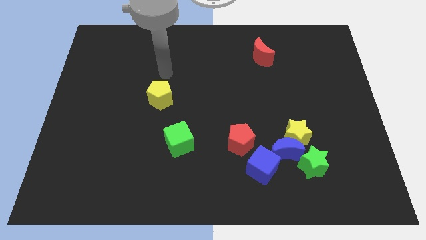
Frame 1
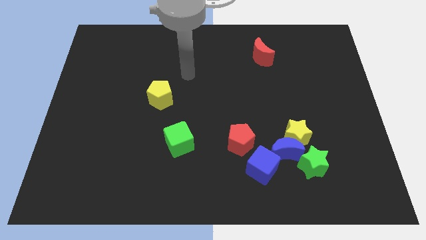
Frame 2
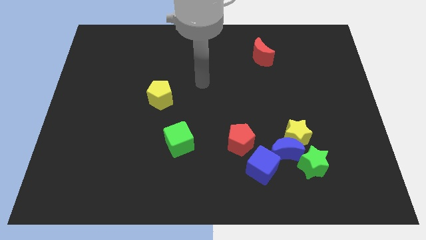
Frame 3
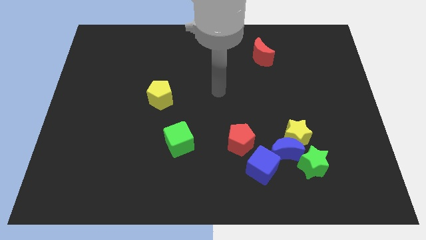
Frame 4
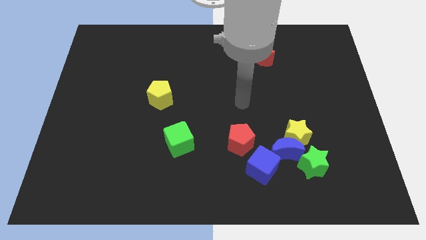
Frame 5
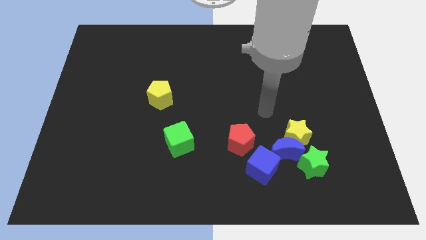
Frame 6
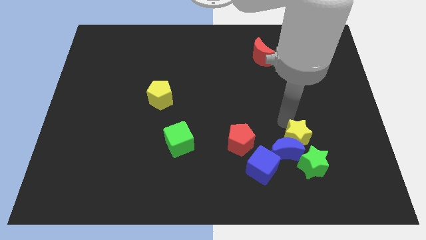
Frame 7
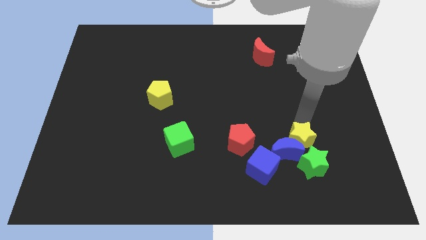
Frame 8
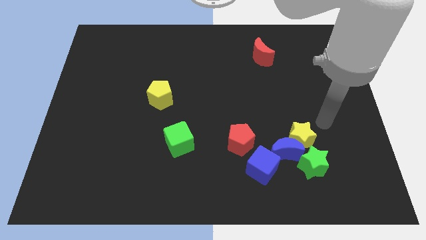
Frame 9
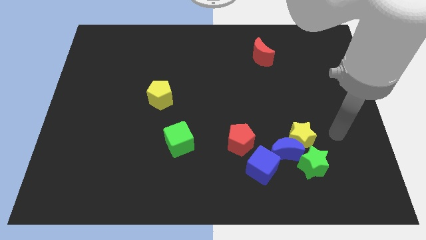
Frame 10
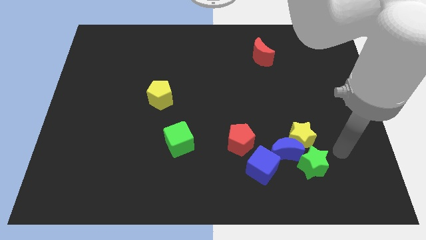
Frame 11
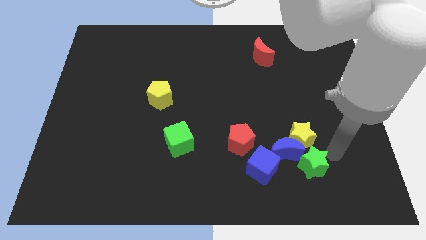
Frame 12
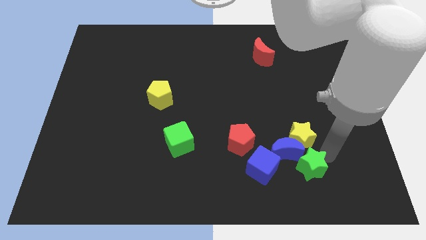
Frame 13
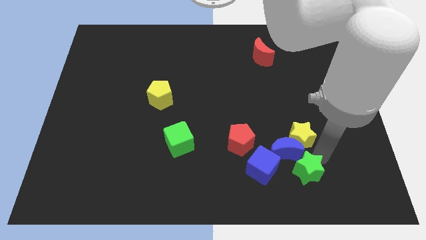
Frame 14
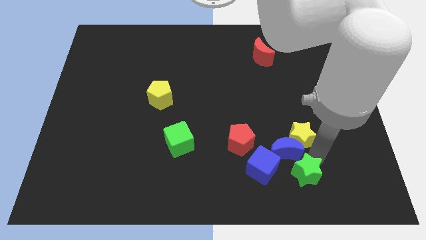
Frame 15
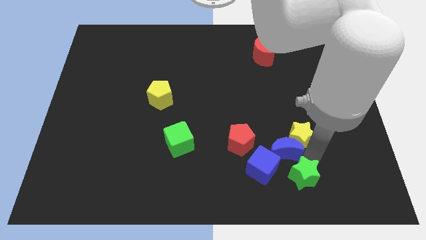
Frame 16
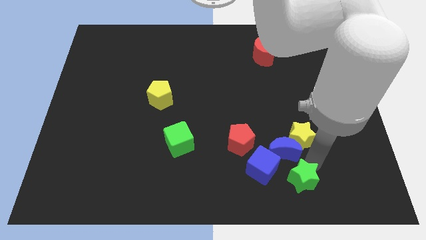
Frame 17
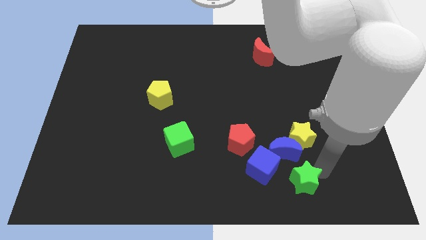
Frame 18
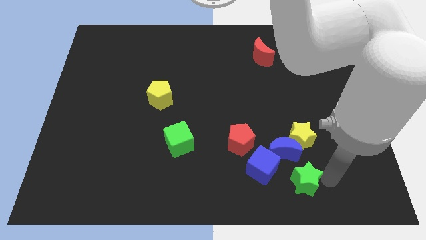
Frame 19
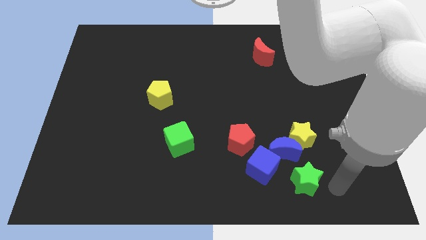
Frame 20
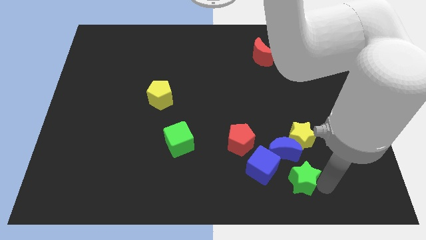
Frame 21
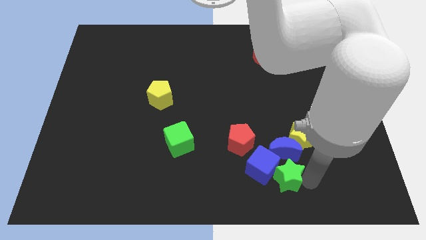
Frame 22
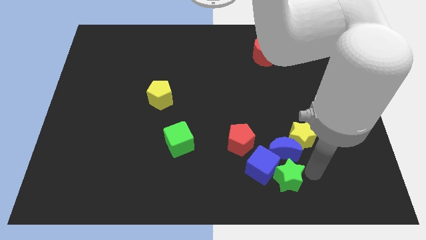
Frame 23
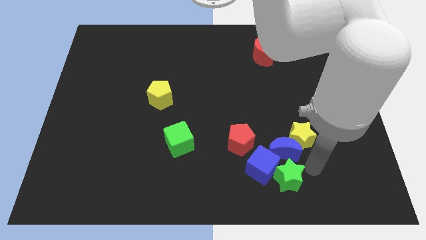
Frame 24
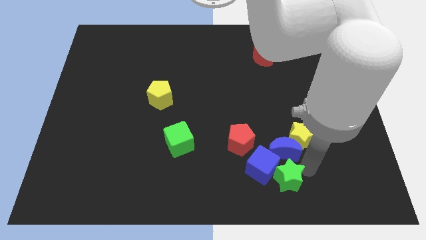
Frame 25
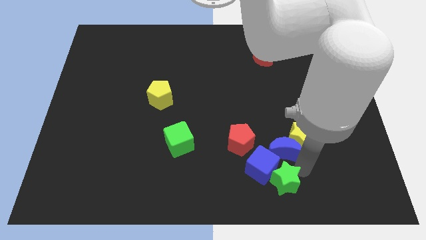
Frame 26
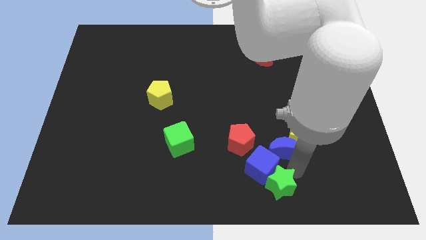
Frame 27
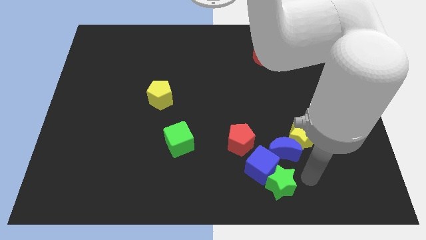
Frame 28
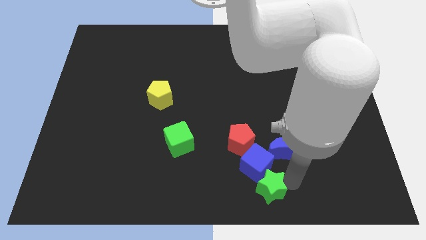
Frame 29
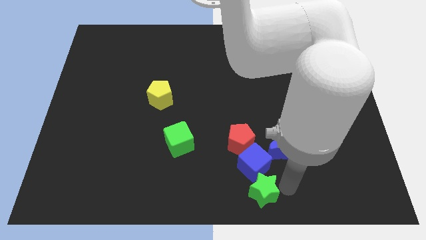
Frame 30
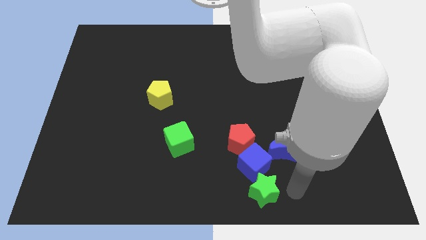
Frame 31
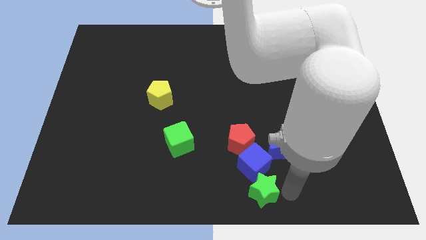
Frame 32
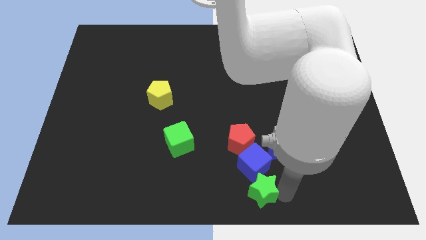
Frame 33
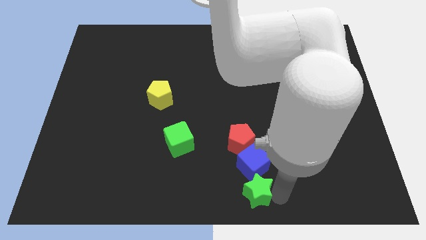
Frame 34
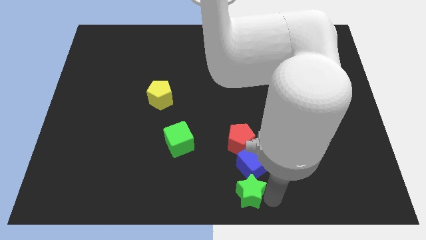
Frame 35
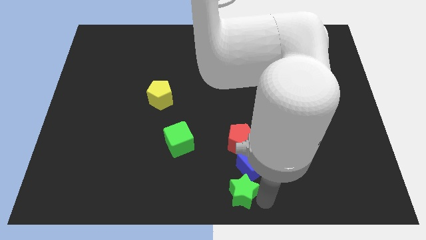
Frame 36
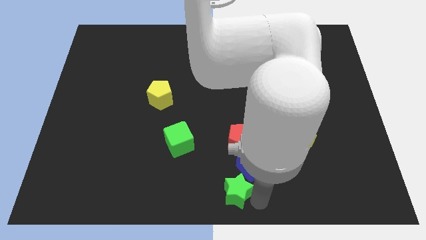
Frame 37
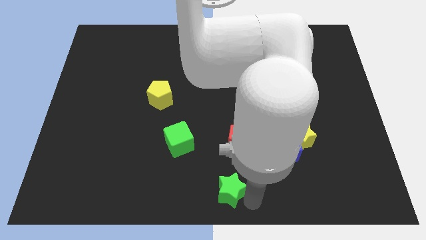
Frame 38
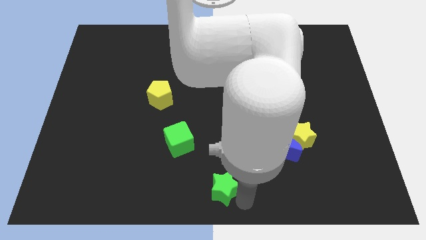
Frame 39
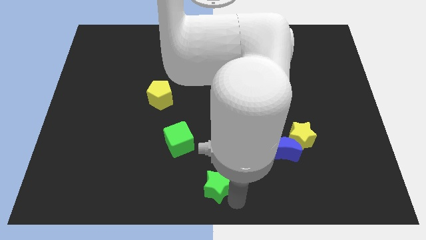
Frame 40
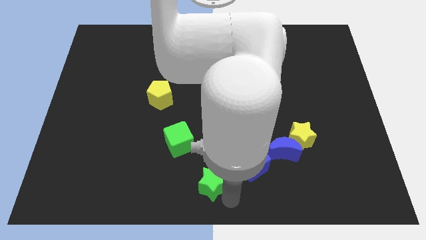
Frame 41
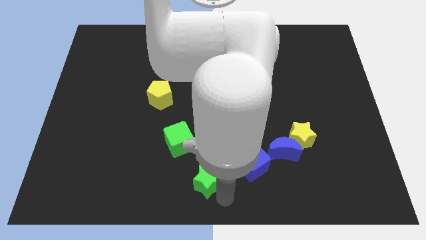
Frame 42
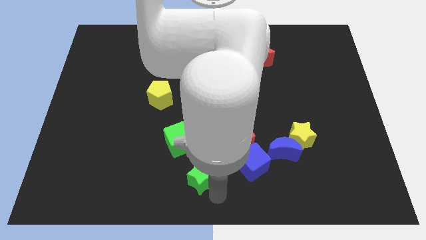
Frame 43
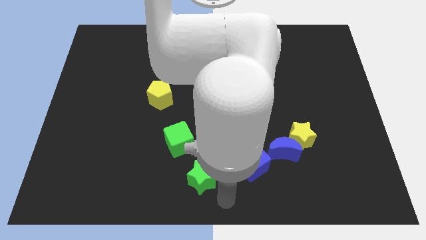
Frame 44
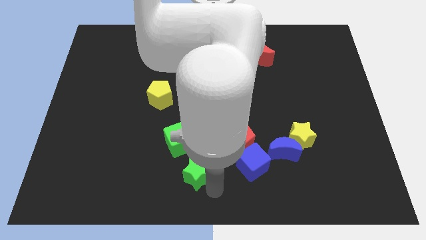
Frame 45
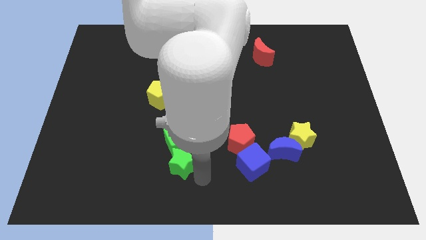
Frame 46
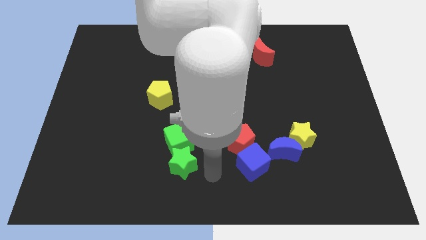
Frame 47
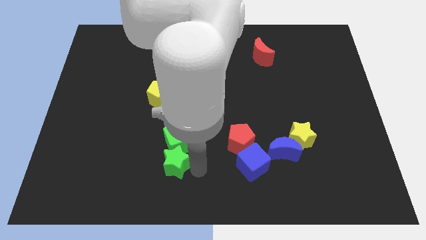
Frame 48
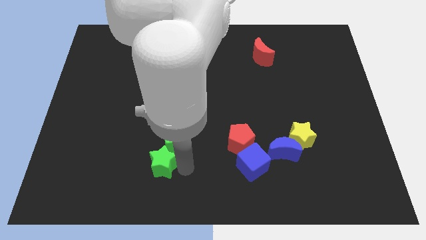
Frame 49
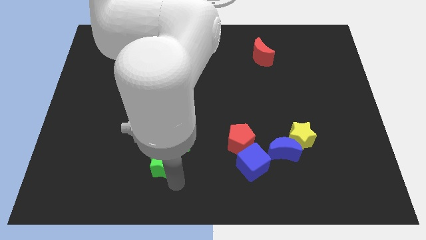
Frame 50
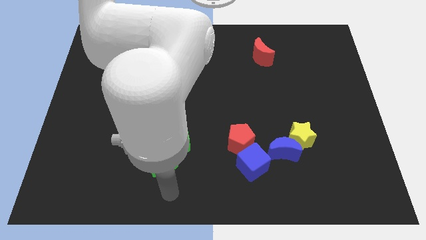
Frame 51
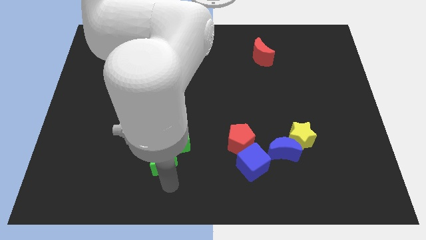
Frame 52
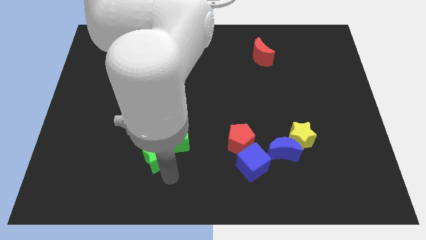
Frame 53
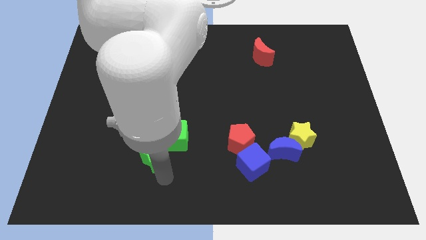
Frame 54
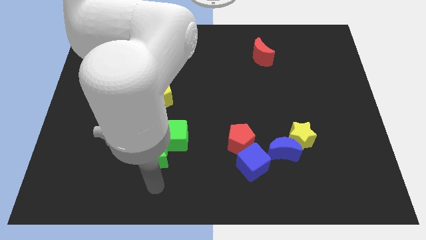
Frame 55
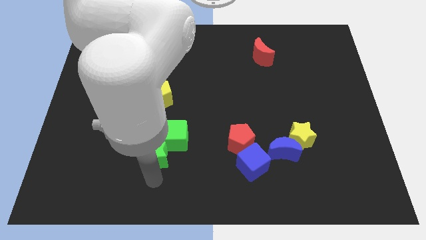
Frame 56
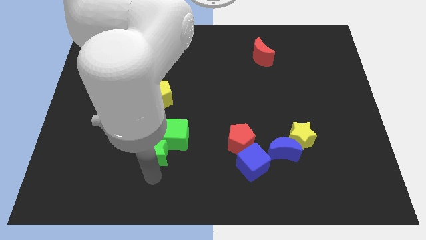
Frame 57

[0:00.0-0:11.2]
put the green star to the bottom of the yellow pentagon

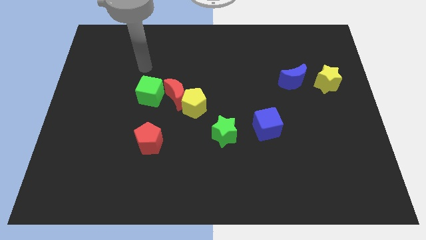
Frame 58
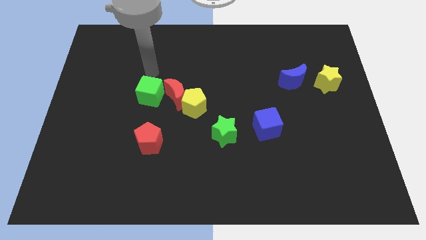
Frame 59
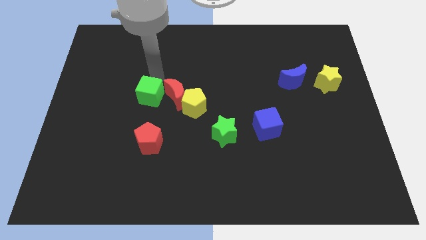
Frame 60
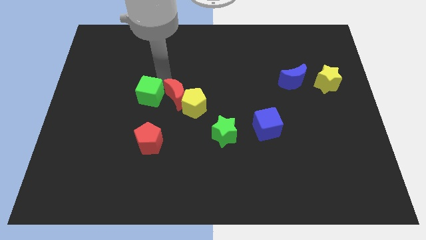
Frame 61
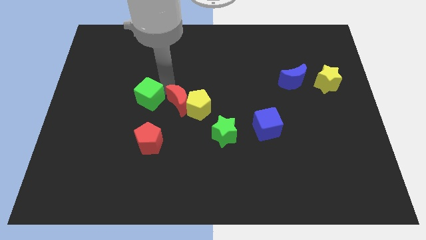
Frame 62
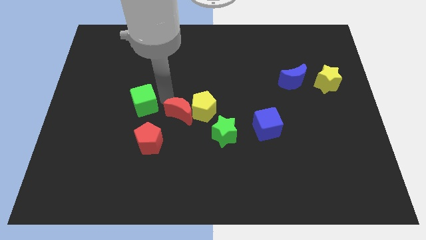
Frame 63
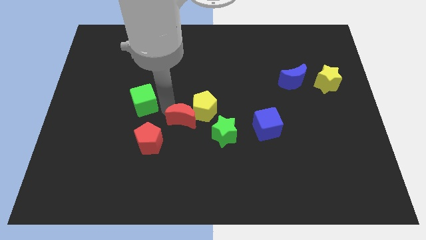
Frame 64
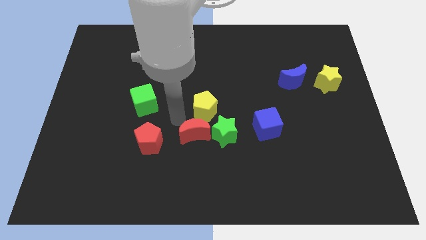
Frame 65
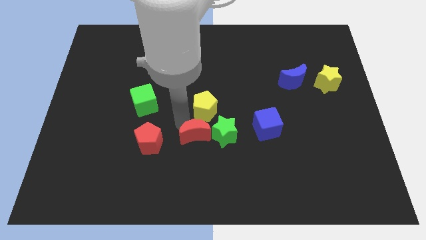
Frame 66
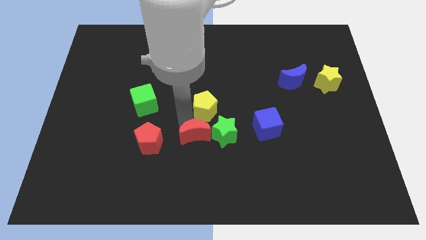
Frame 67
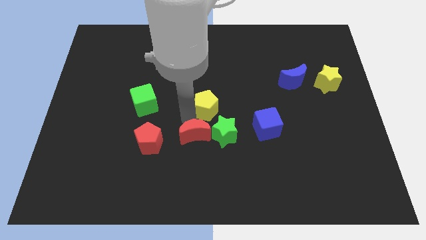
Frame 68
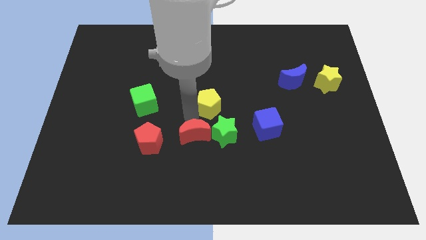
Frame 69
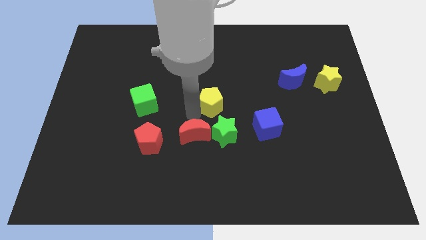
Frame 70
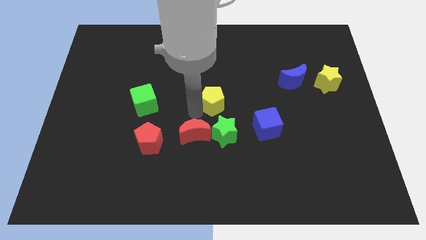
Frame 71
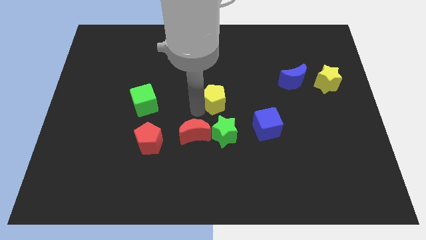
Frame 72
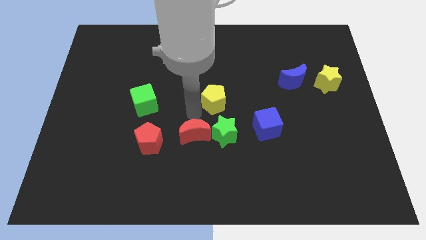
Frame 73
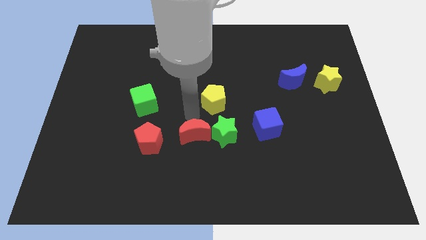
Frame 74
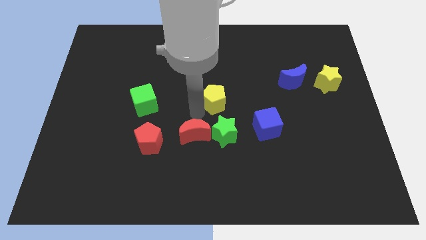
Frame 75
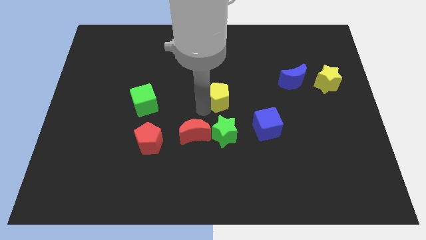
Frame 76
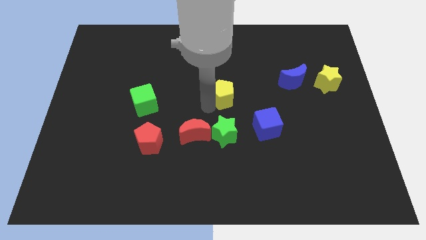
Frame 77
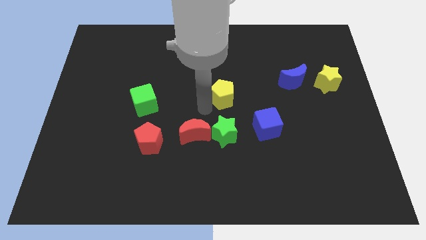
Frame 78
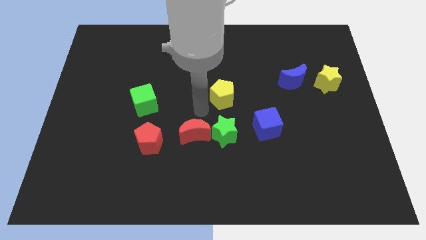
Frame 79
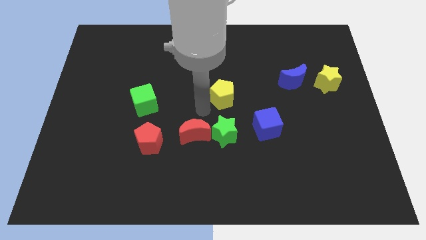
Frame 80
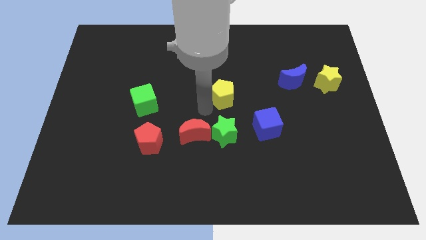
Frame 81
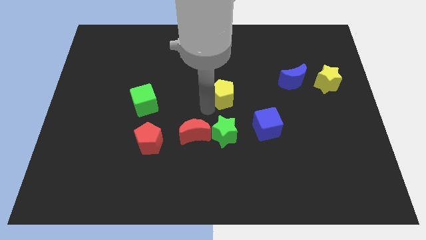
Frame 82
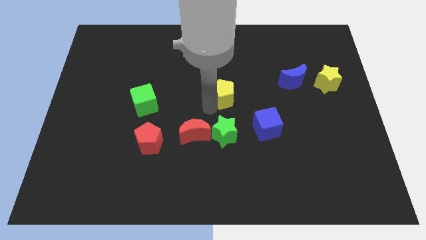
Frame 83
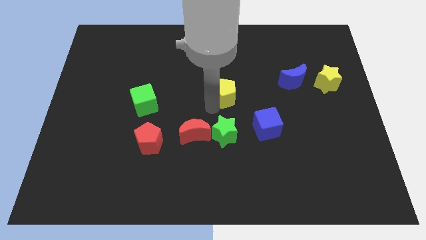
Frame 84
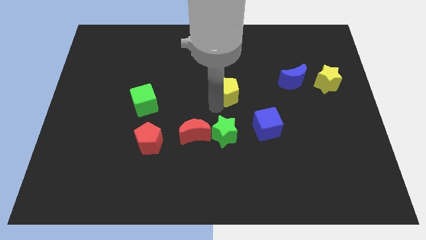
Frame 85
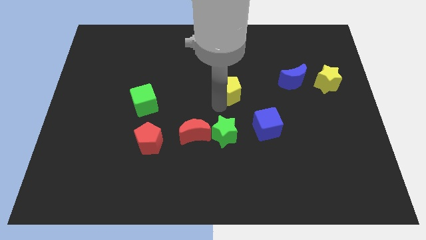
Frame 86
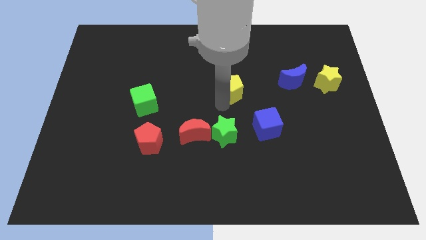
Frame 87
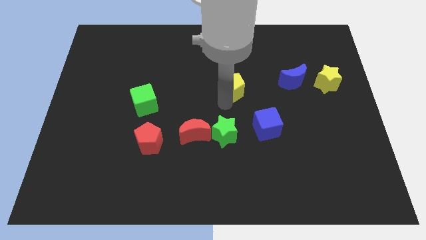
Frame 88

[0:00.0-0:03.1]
move the yellow pentagon just left of the blue moon
